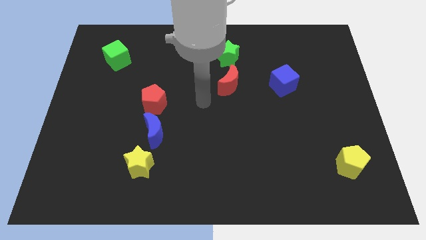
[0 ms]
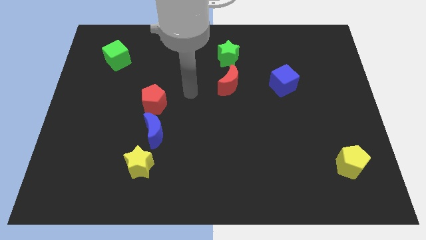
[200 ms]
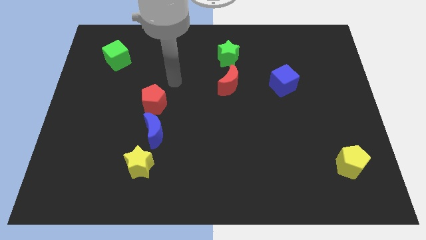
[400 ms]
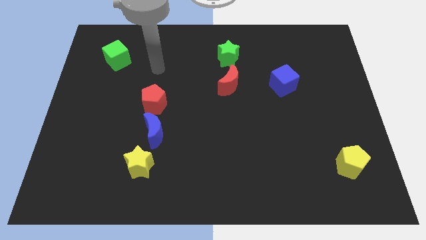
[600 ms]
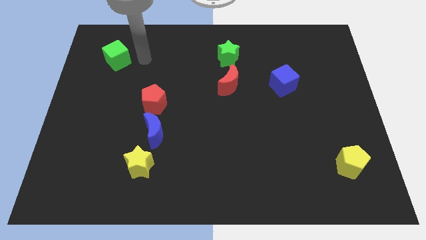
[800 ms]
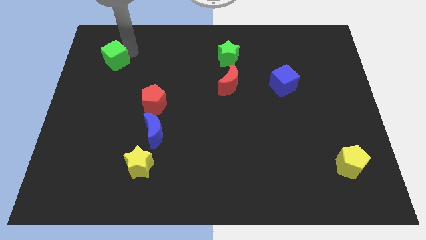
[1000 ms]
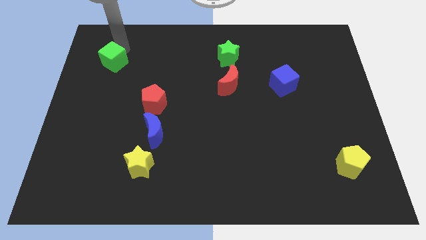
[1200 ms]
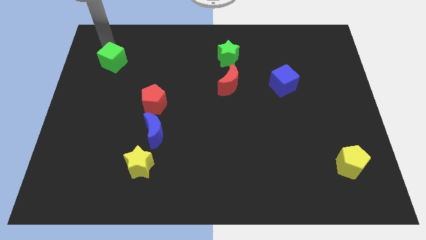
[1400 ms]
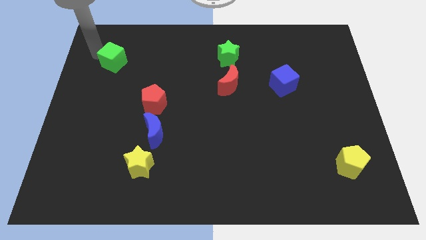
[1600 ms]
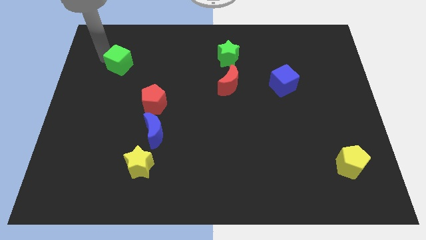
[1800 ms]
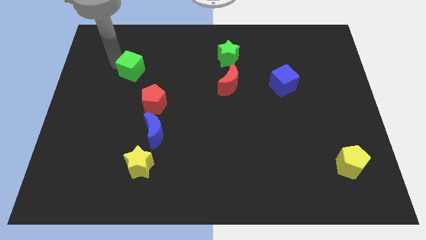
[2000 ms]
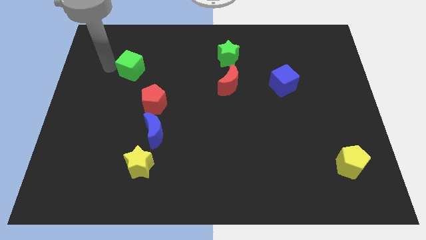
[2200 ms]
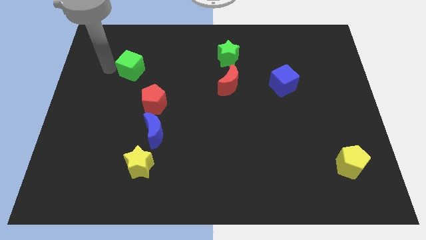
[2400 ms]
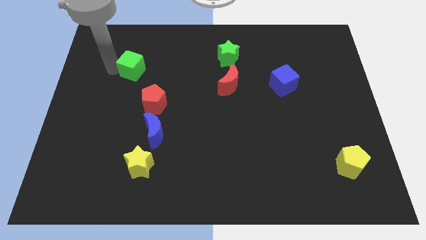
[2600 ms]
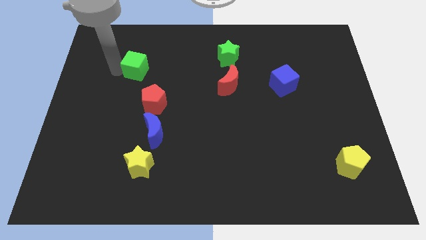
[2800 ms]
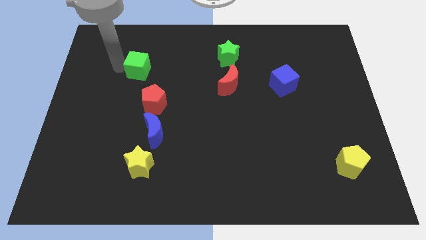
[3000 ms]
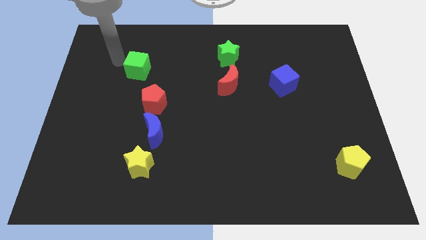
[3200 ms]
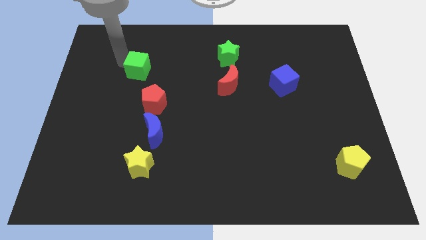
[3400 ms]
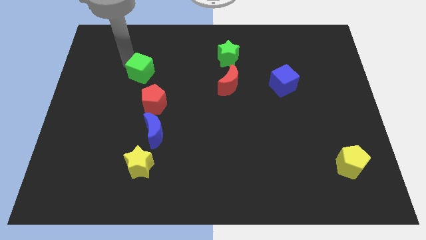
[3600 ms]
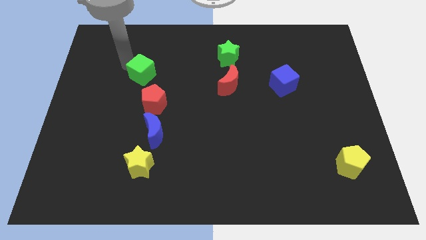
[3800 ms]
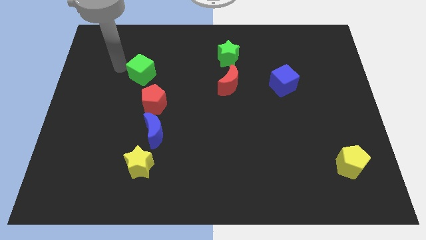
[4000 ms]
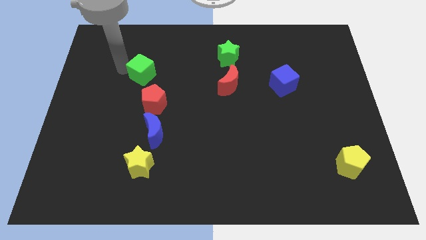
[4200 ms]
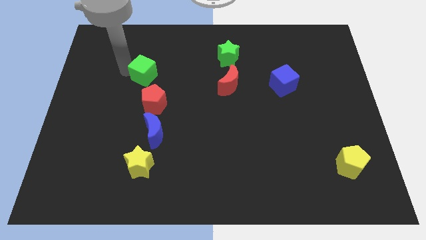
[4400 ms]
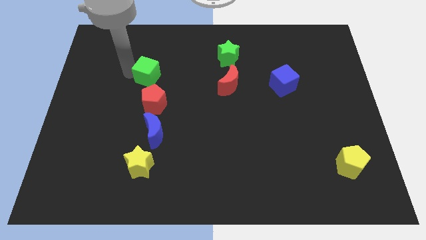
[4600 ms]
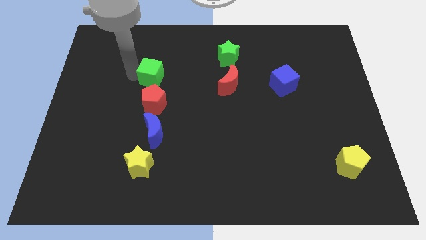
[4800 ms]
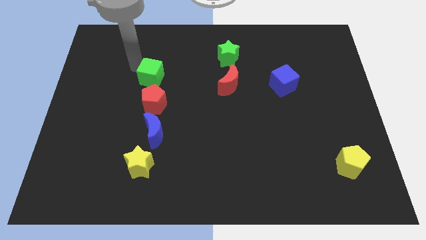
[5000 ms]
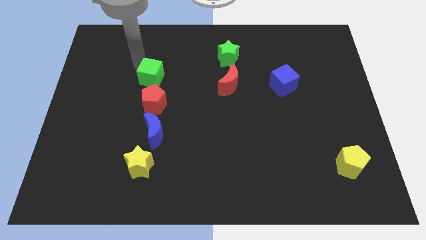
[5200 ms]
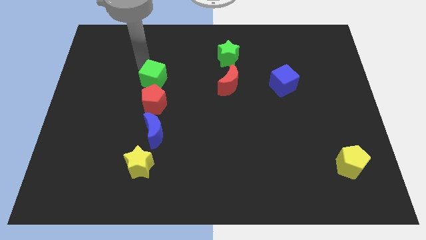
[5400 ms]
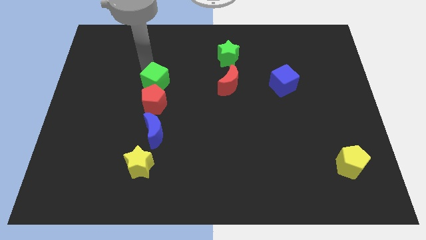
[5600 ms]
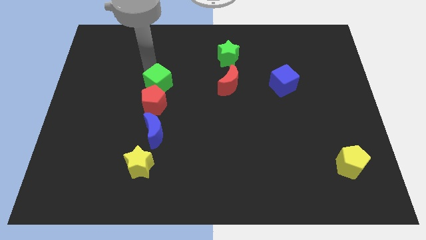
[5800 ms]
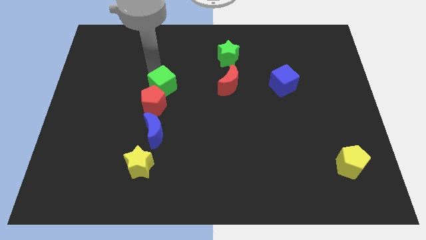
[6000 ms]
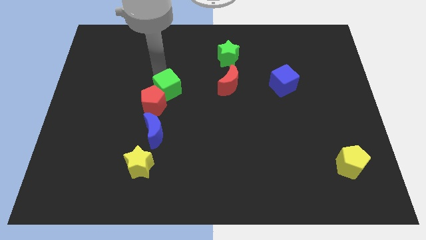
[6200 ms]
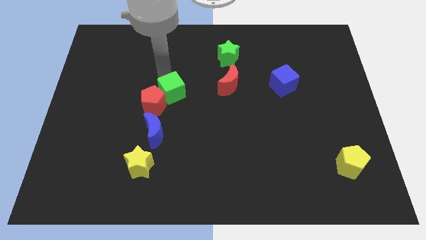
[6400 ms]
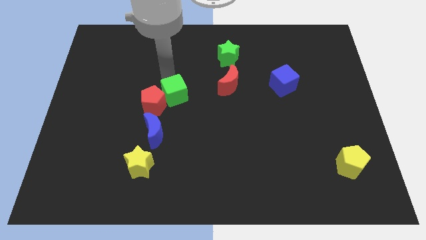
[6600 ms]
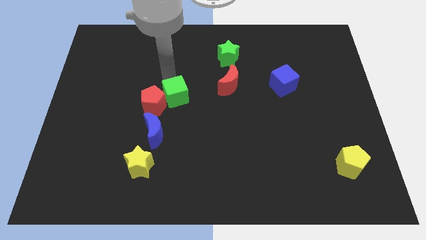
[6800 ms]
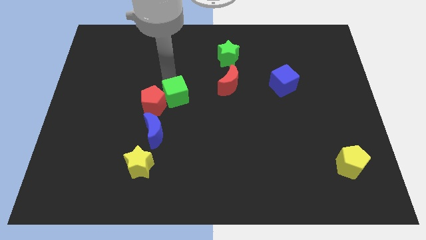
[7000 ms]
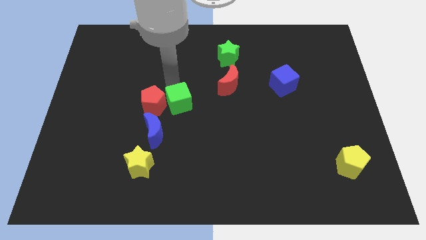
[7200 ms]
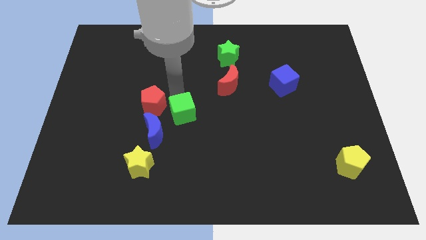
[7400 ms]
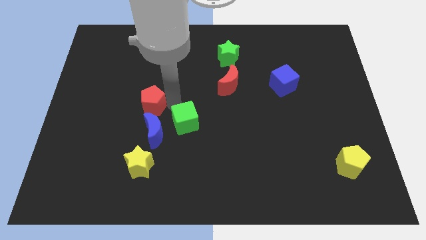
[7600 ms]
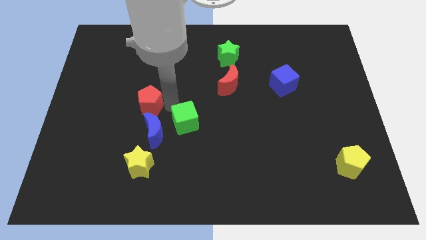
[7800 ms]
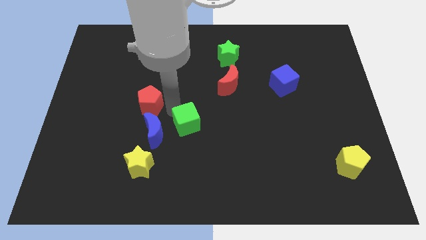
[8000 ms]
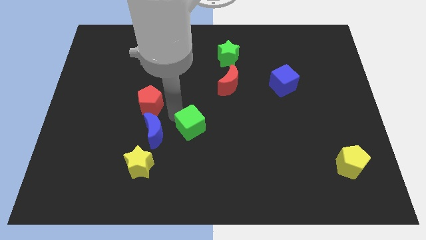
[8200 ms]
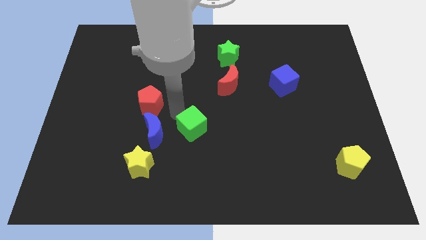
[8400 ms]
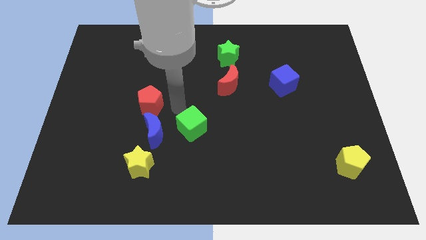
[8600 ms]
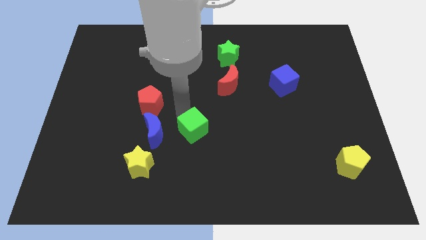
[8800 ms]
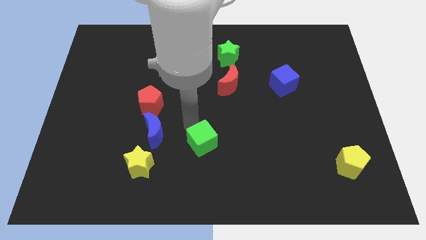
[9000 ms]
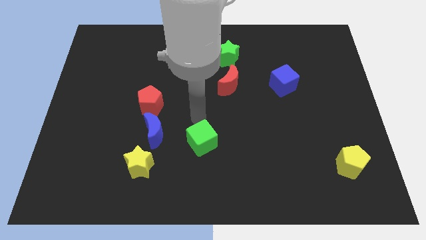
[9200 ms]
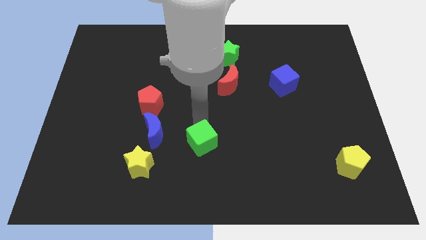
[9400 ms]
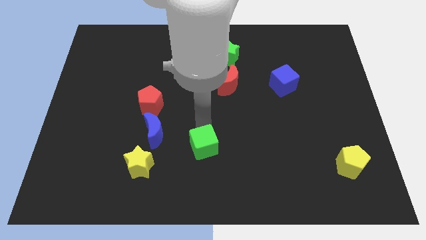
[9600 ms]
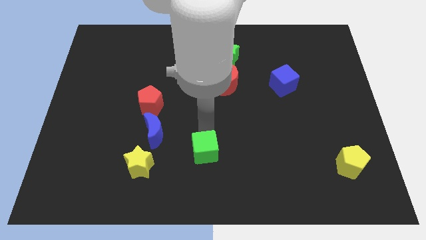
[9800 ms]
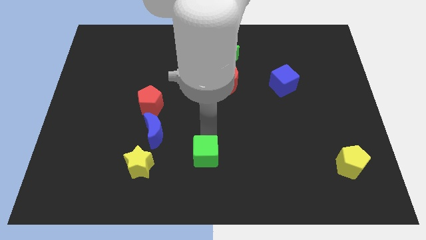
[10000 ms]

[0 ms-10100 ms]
slide the green cube to the bottom

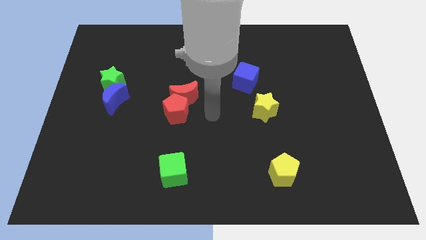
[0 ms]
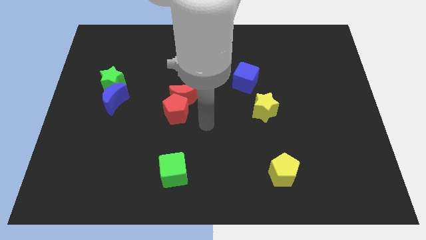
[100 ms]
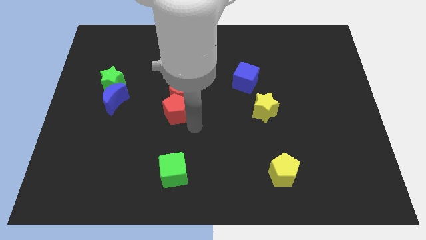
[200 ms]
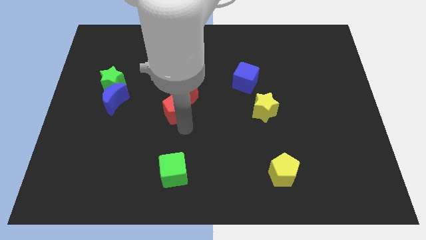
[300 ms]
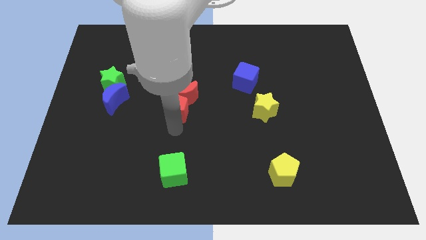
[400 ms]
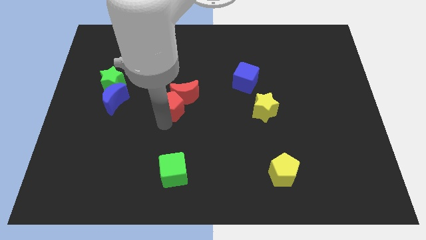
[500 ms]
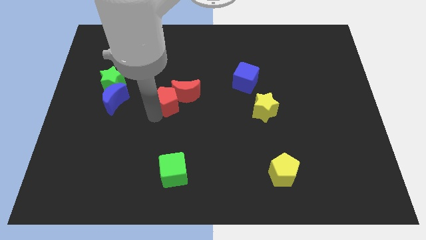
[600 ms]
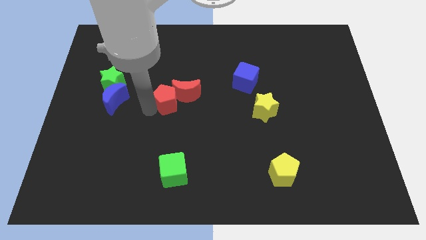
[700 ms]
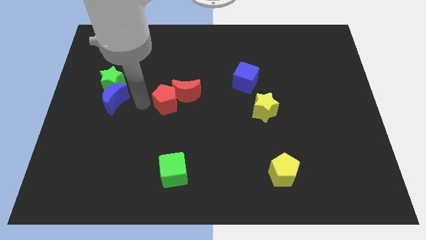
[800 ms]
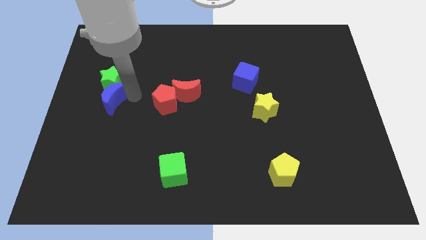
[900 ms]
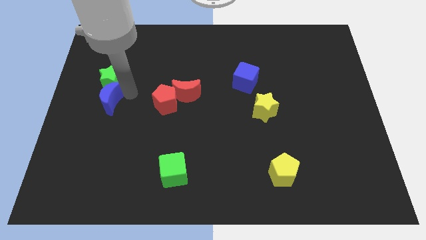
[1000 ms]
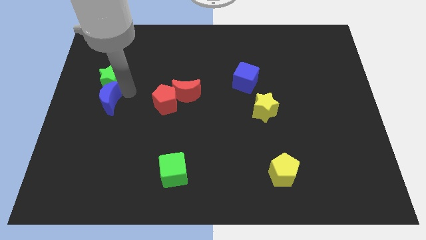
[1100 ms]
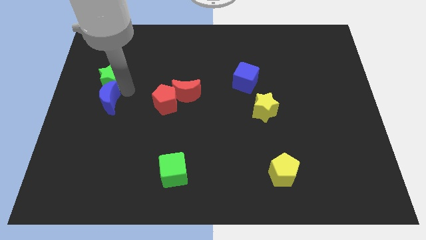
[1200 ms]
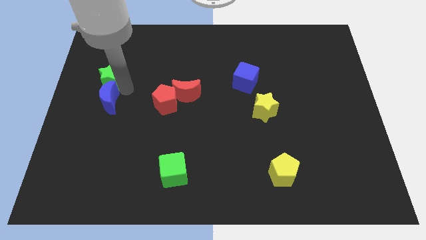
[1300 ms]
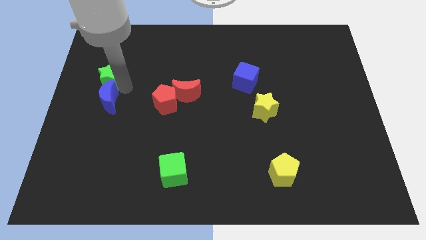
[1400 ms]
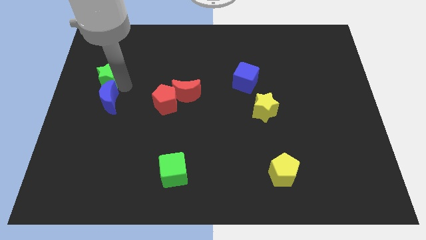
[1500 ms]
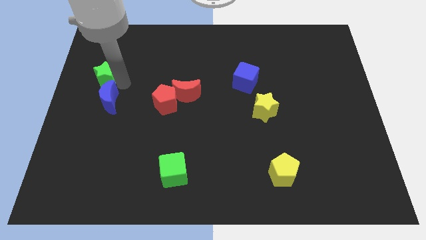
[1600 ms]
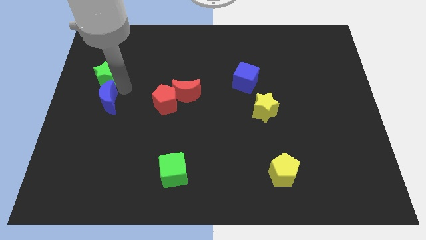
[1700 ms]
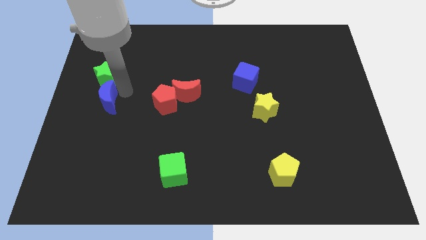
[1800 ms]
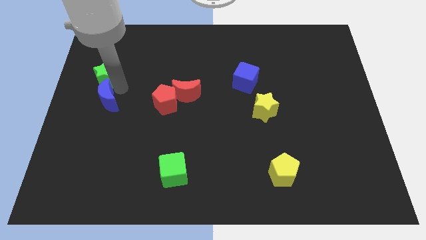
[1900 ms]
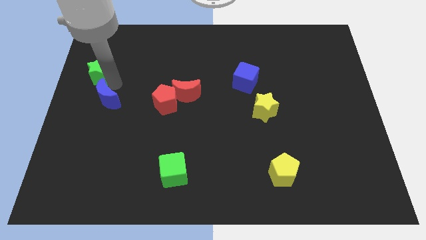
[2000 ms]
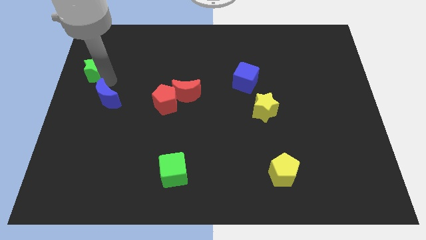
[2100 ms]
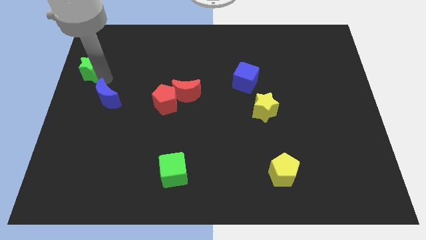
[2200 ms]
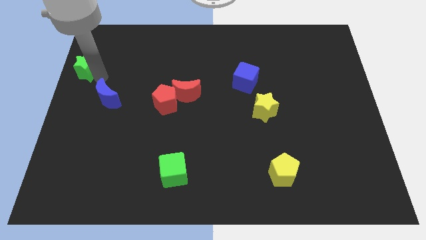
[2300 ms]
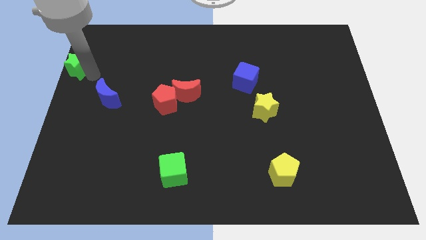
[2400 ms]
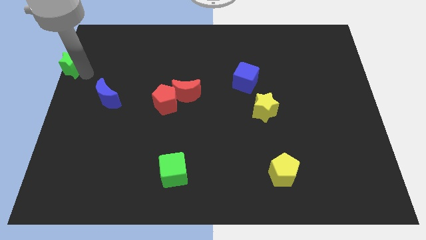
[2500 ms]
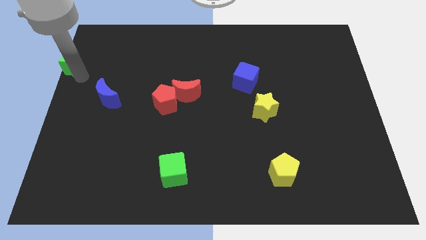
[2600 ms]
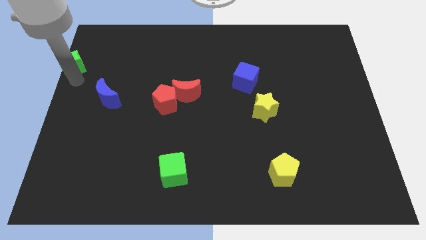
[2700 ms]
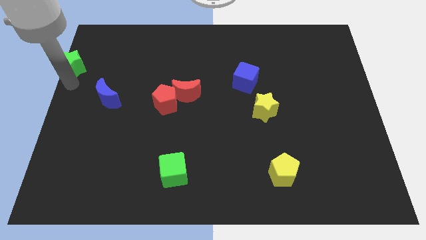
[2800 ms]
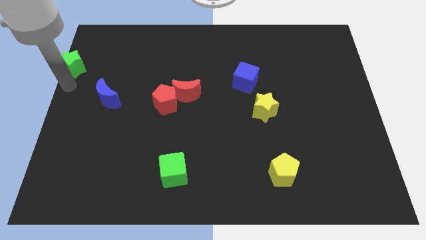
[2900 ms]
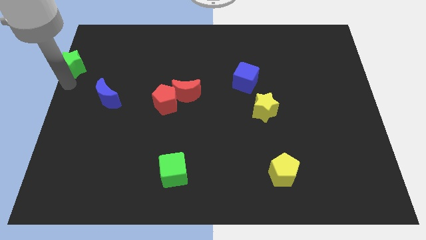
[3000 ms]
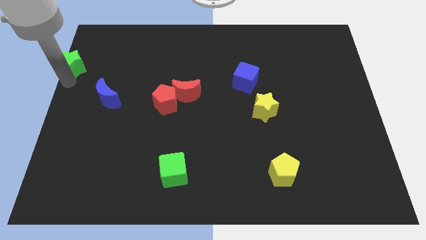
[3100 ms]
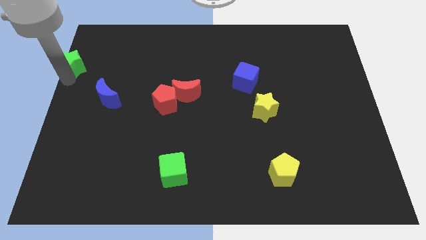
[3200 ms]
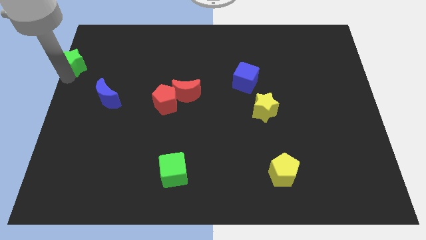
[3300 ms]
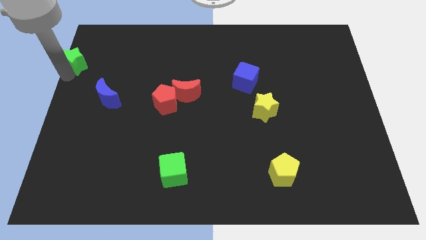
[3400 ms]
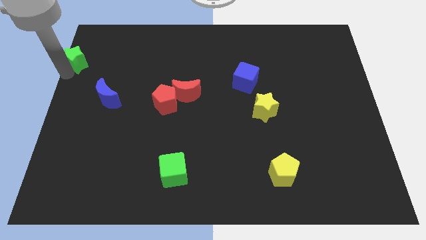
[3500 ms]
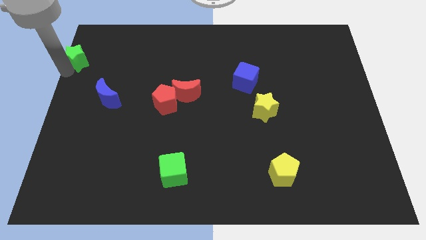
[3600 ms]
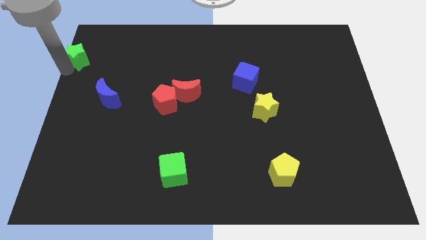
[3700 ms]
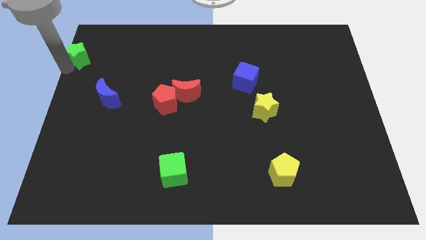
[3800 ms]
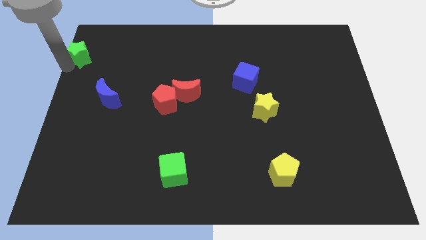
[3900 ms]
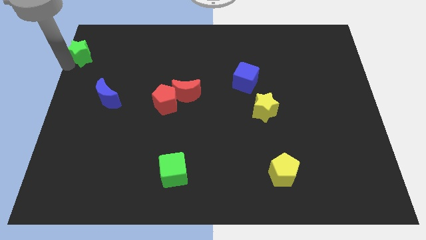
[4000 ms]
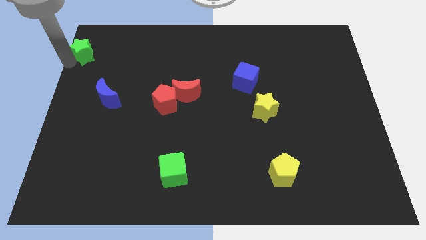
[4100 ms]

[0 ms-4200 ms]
push the green star to the top left corner
